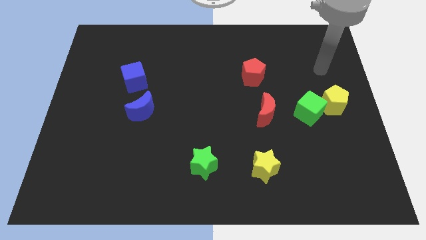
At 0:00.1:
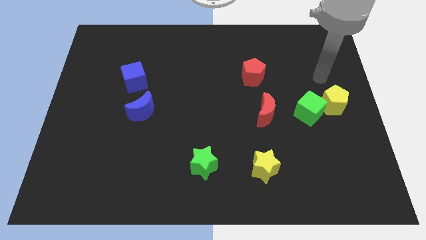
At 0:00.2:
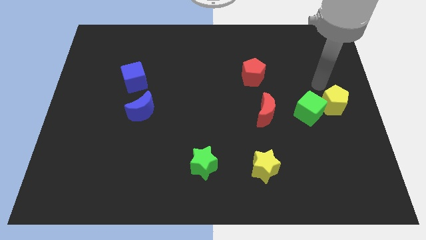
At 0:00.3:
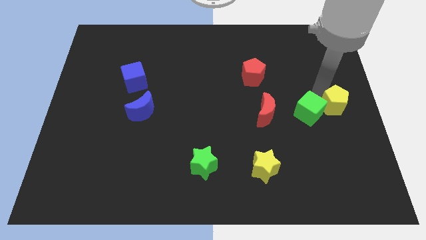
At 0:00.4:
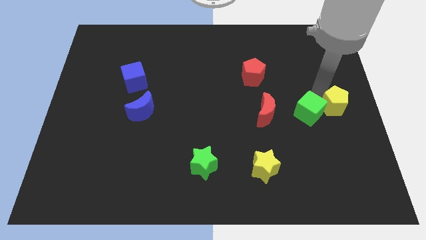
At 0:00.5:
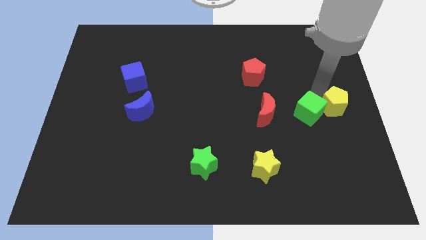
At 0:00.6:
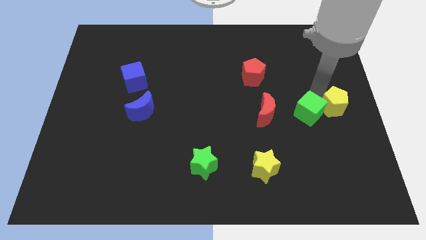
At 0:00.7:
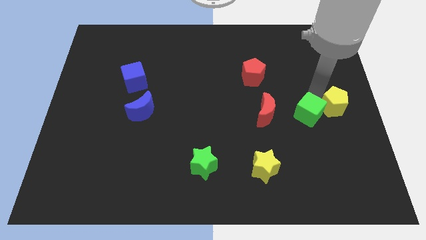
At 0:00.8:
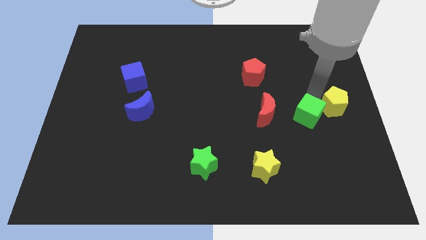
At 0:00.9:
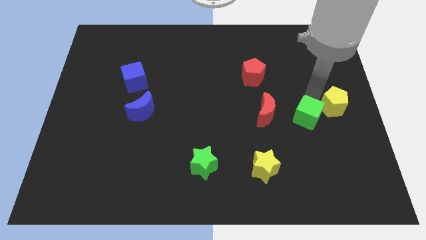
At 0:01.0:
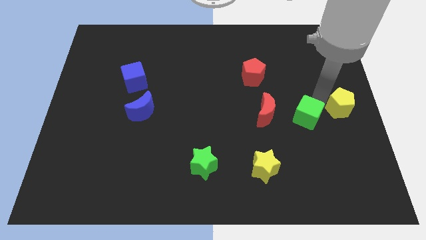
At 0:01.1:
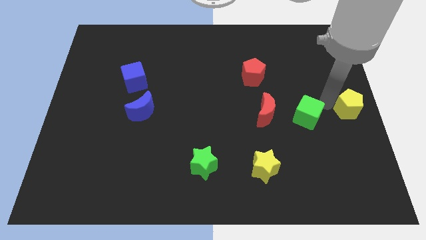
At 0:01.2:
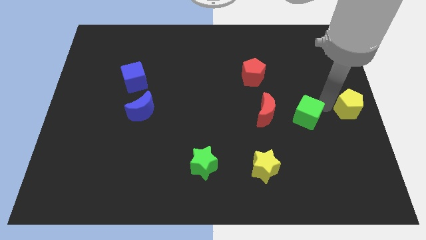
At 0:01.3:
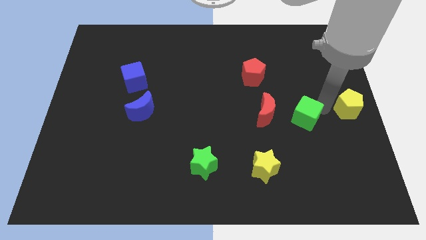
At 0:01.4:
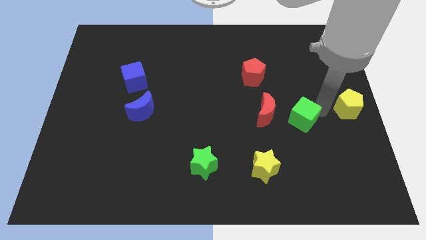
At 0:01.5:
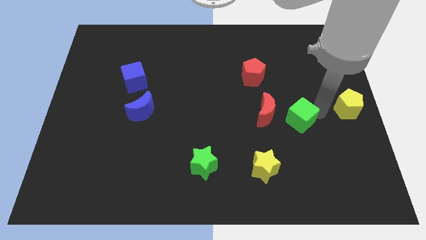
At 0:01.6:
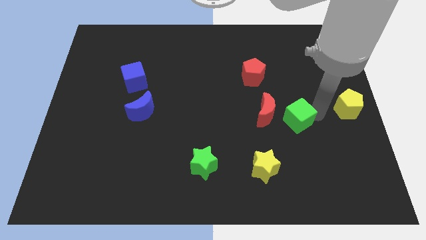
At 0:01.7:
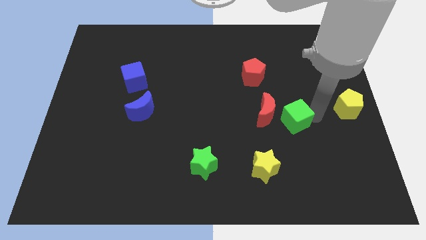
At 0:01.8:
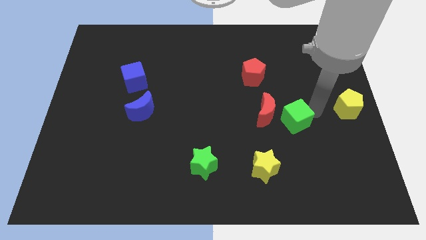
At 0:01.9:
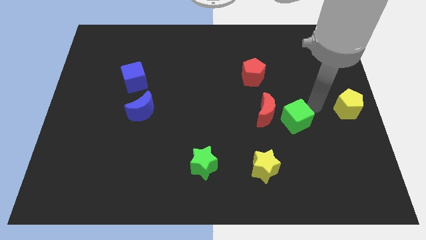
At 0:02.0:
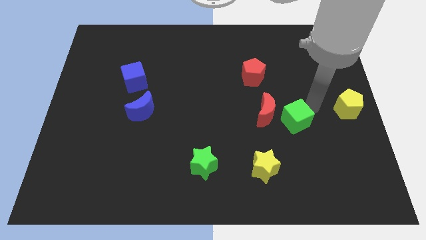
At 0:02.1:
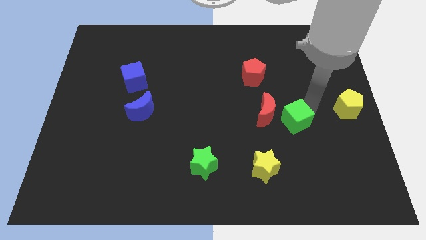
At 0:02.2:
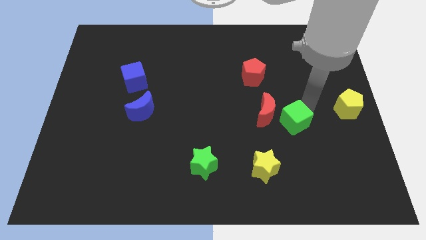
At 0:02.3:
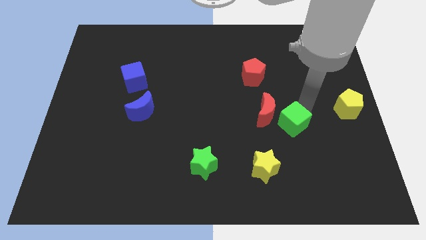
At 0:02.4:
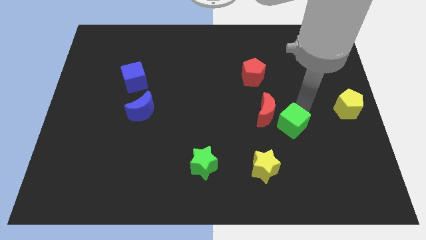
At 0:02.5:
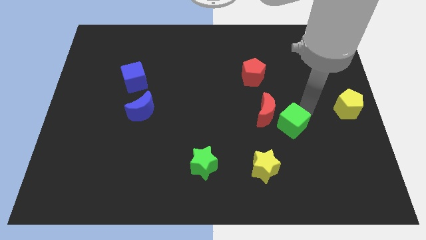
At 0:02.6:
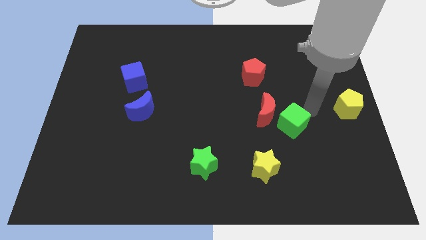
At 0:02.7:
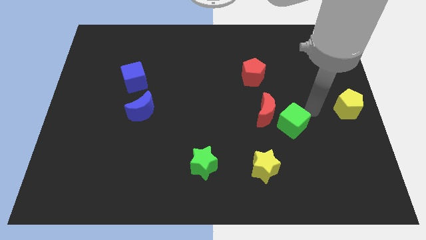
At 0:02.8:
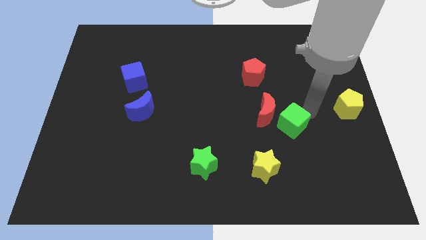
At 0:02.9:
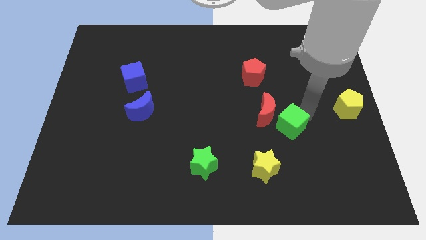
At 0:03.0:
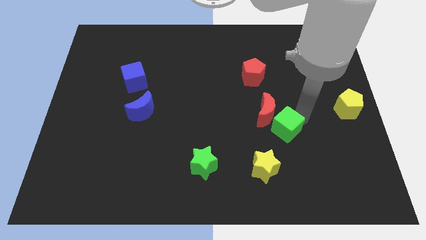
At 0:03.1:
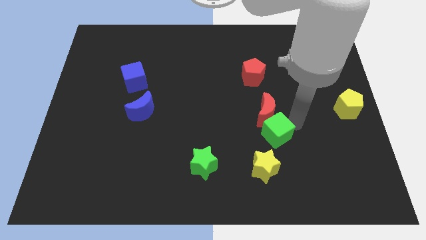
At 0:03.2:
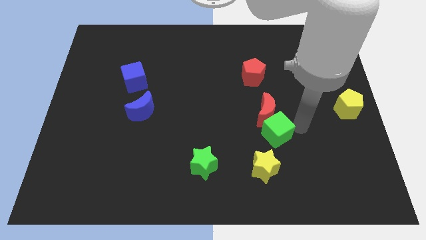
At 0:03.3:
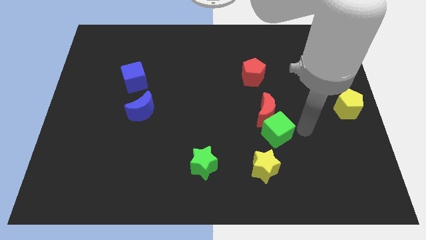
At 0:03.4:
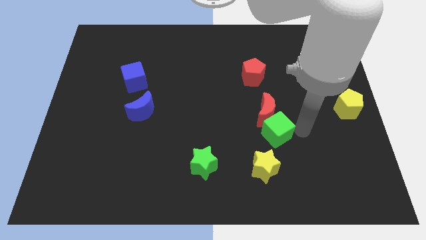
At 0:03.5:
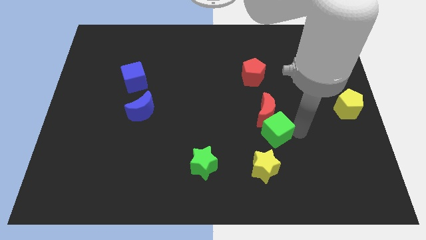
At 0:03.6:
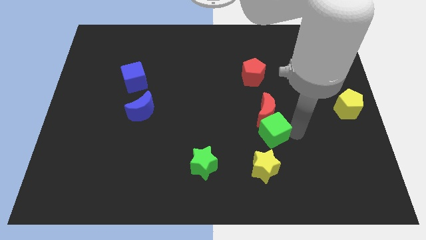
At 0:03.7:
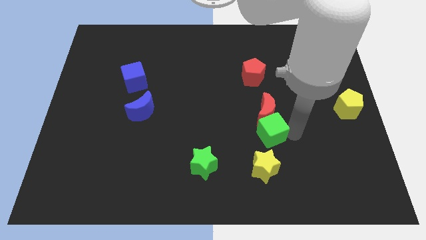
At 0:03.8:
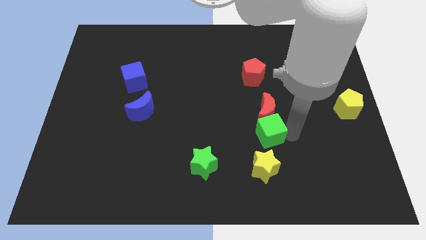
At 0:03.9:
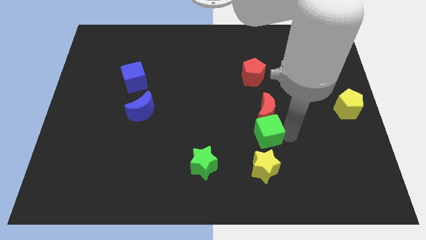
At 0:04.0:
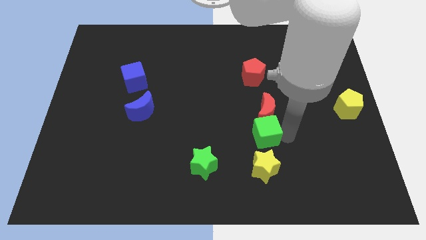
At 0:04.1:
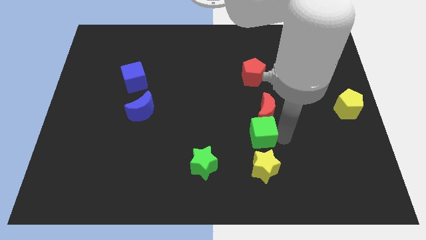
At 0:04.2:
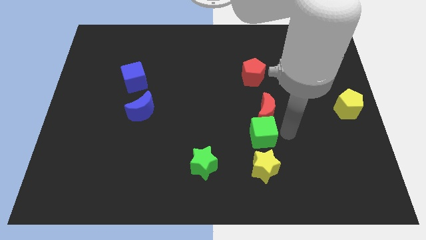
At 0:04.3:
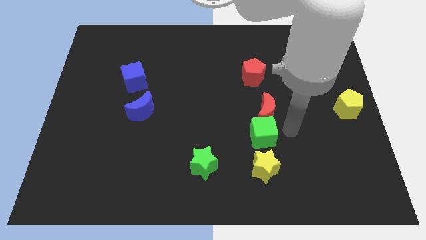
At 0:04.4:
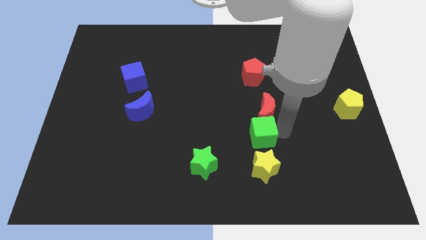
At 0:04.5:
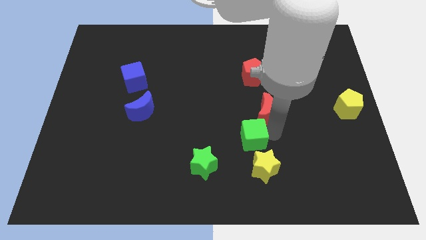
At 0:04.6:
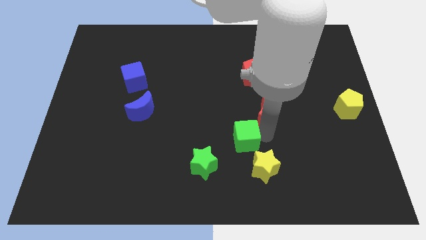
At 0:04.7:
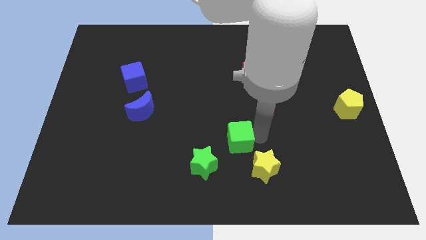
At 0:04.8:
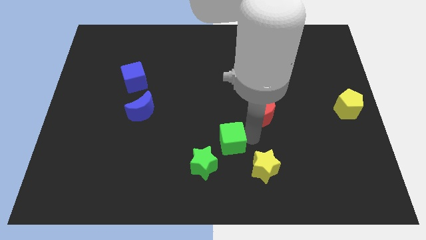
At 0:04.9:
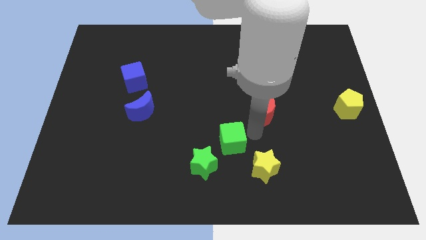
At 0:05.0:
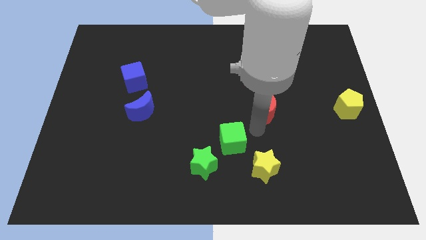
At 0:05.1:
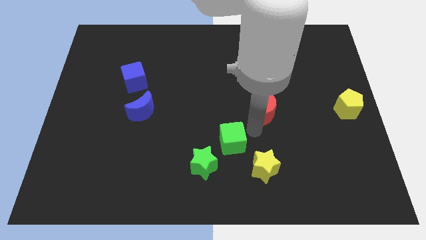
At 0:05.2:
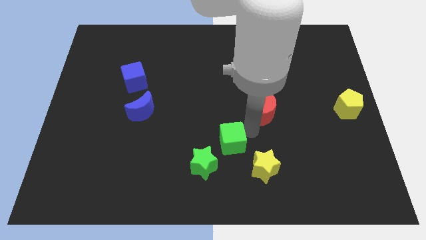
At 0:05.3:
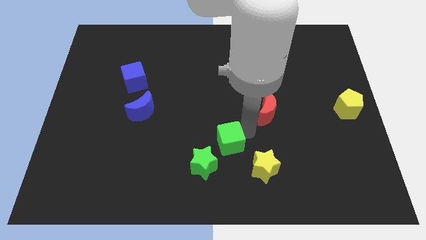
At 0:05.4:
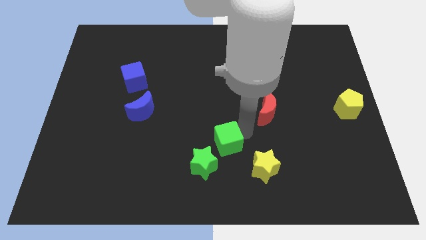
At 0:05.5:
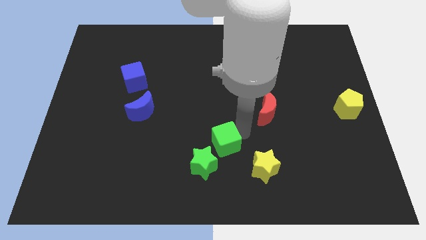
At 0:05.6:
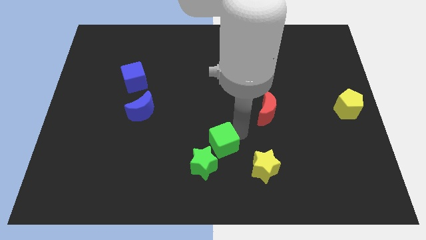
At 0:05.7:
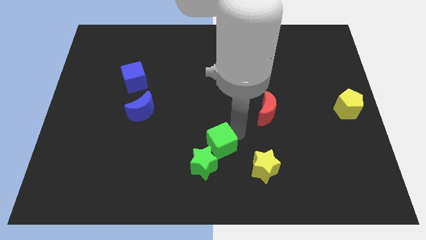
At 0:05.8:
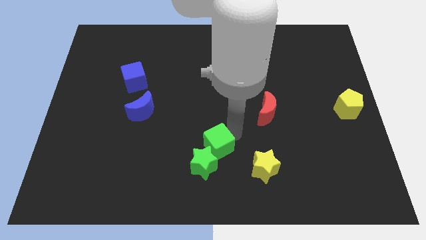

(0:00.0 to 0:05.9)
push the green cube close to the green star

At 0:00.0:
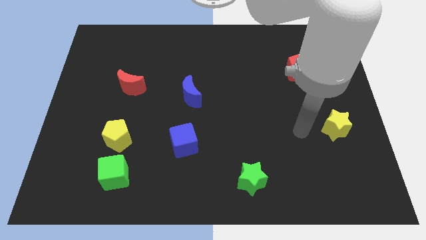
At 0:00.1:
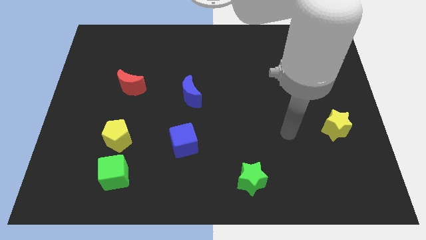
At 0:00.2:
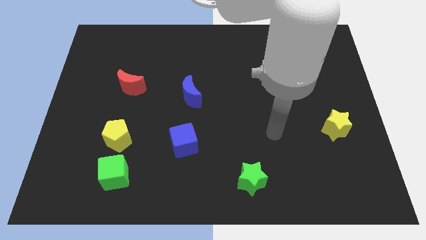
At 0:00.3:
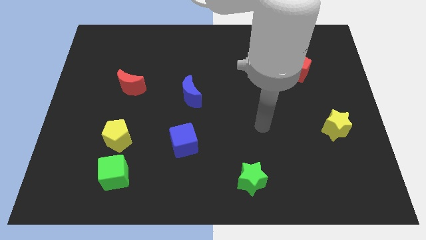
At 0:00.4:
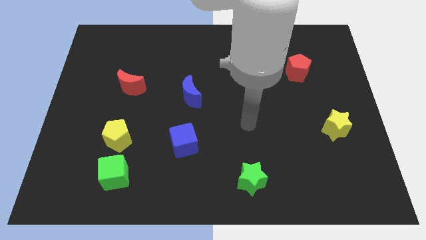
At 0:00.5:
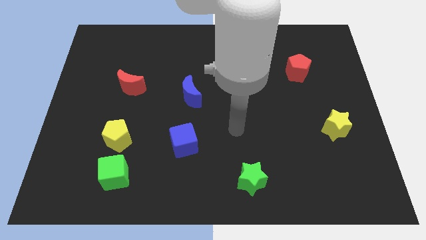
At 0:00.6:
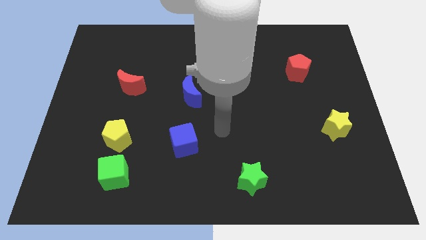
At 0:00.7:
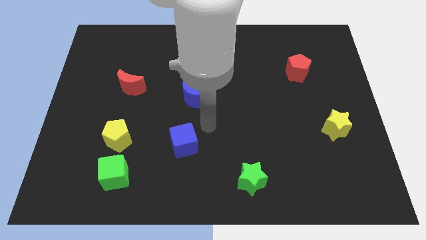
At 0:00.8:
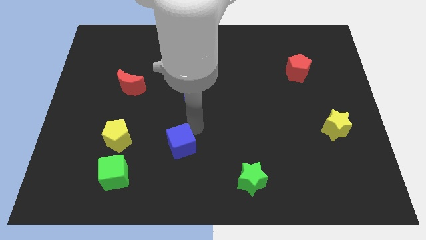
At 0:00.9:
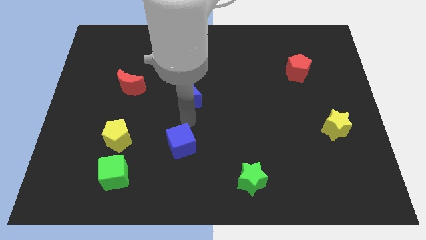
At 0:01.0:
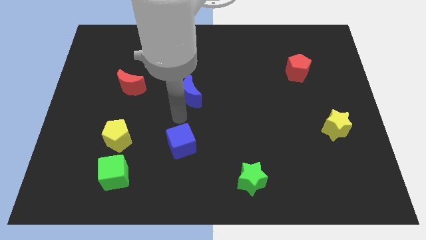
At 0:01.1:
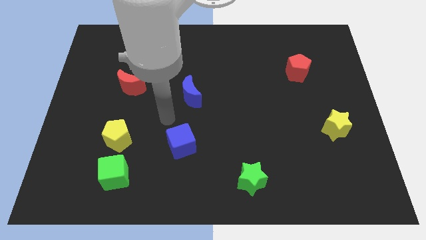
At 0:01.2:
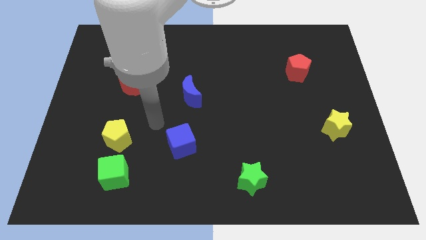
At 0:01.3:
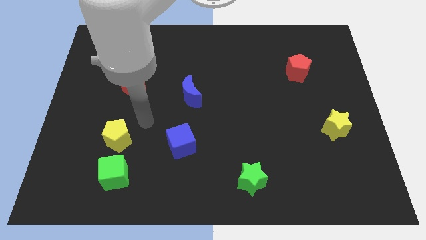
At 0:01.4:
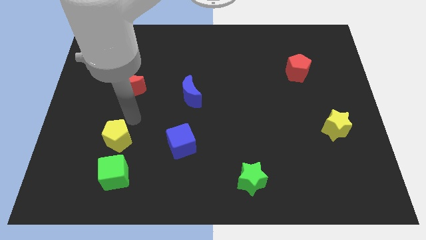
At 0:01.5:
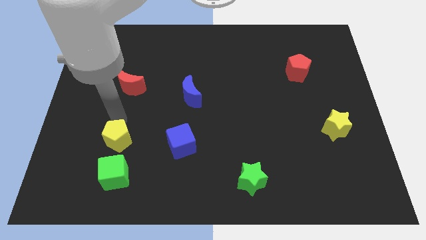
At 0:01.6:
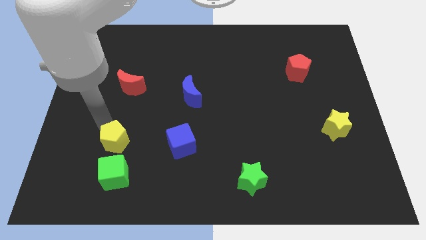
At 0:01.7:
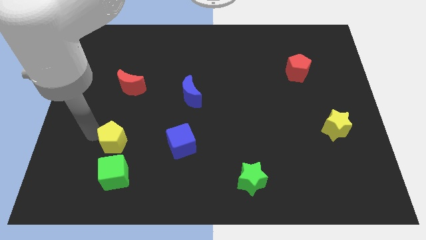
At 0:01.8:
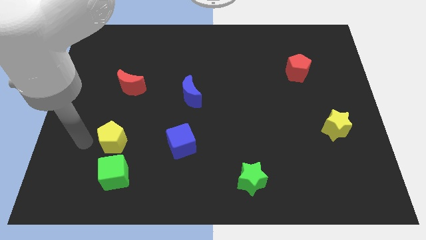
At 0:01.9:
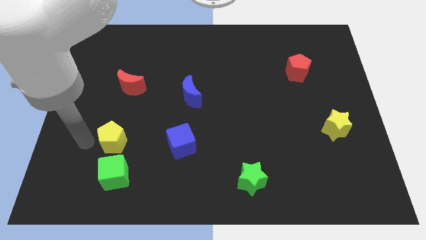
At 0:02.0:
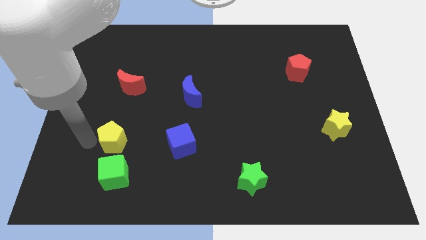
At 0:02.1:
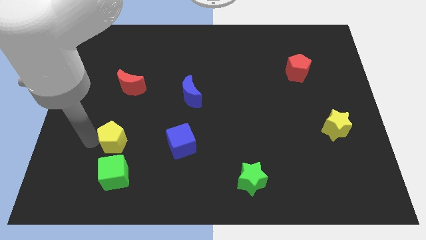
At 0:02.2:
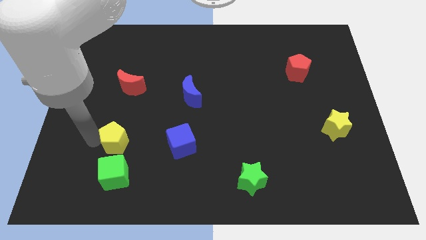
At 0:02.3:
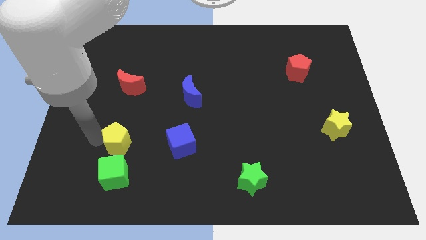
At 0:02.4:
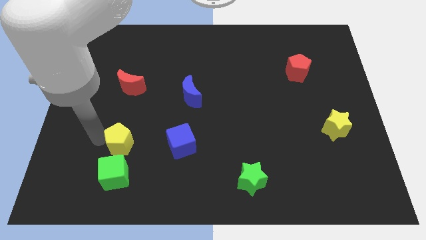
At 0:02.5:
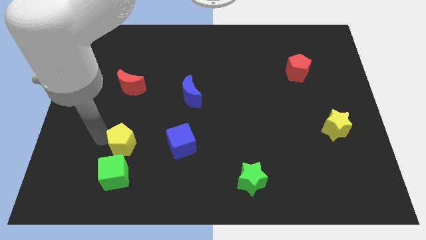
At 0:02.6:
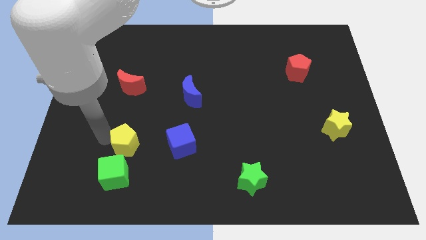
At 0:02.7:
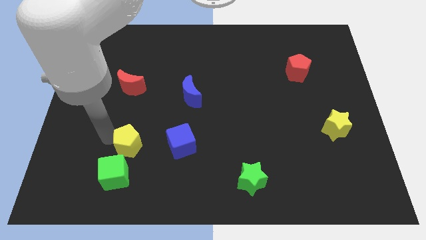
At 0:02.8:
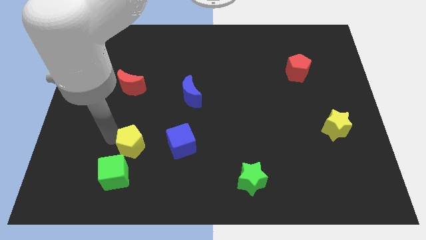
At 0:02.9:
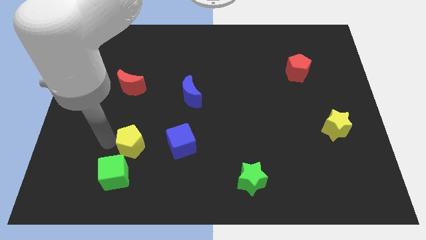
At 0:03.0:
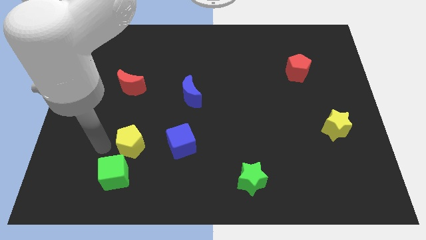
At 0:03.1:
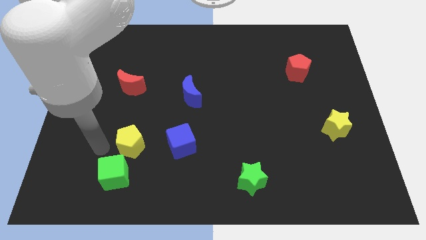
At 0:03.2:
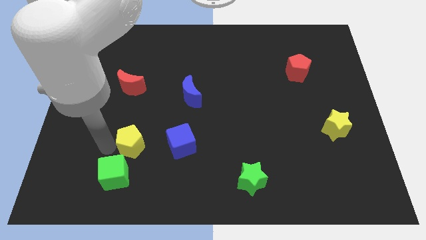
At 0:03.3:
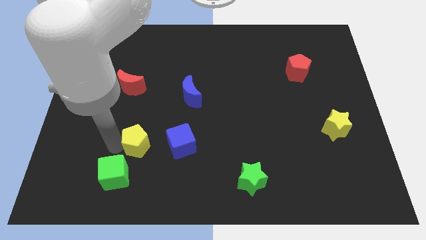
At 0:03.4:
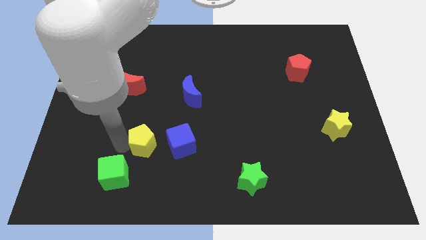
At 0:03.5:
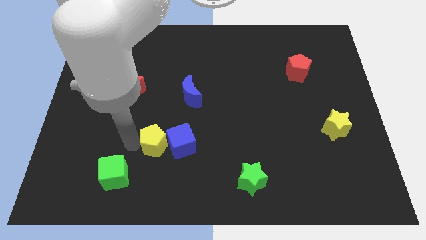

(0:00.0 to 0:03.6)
put the yellow pentagon to the blue cube
